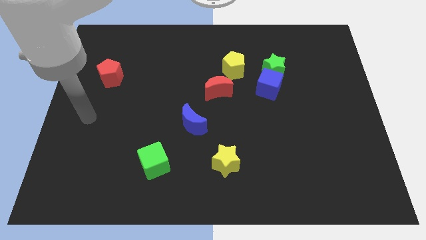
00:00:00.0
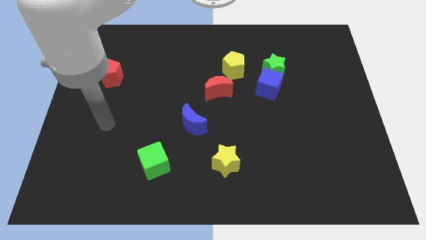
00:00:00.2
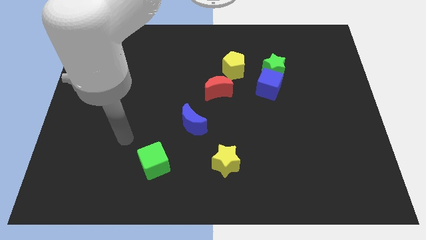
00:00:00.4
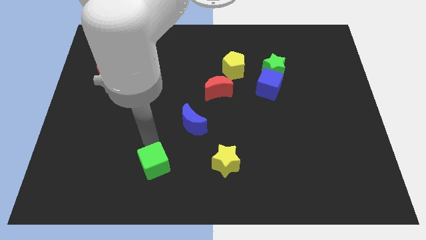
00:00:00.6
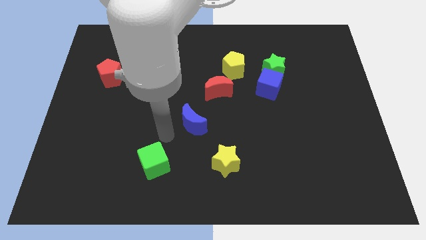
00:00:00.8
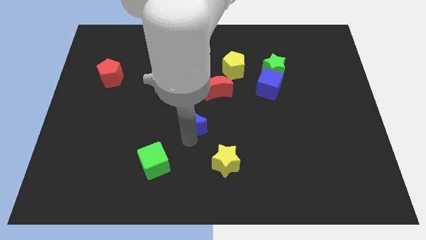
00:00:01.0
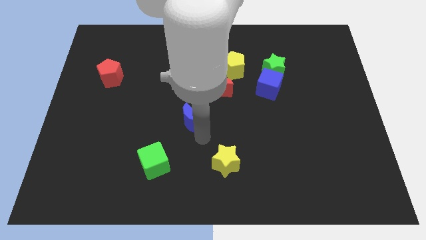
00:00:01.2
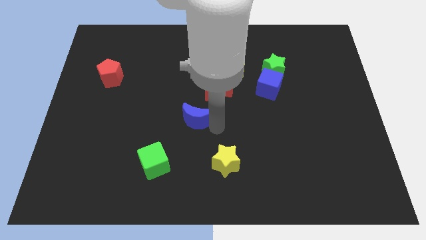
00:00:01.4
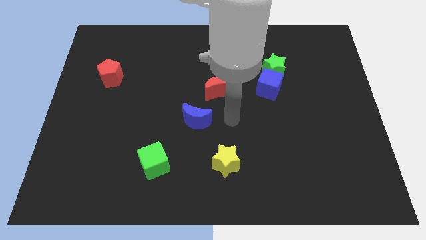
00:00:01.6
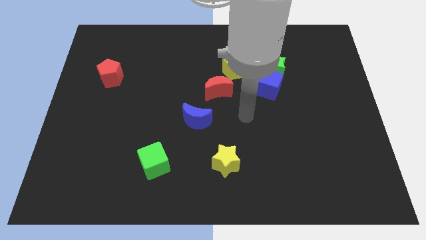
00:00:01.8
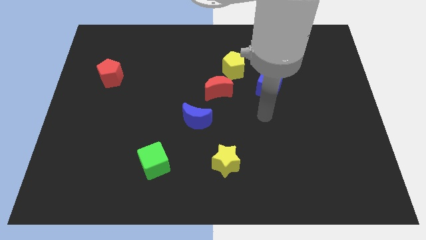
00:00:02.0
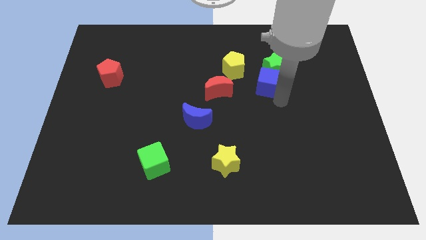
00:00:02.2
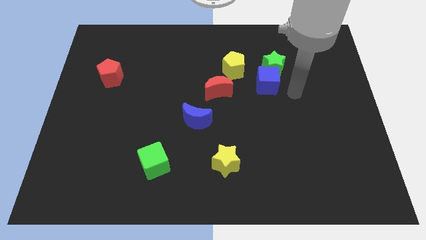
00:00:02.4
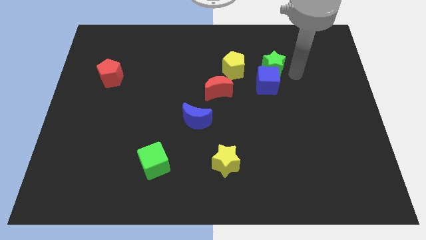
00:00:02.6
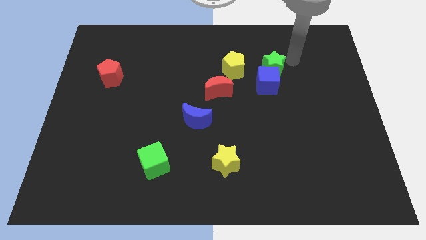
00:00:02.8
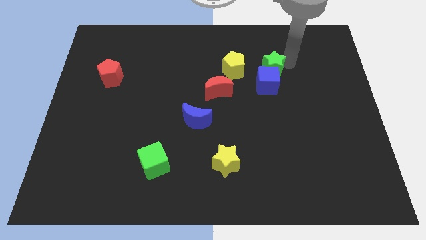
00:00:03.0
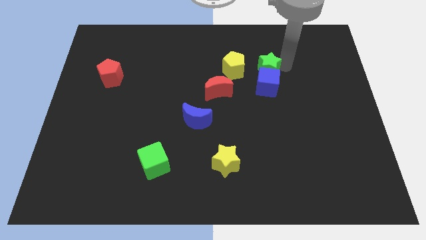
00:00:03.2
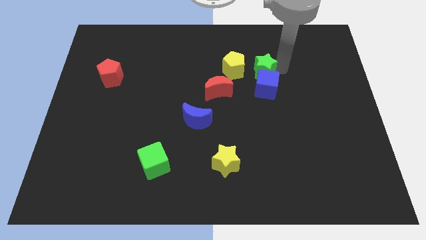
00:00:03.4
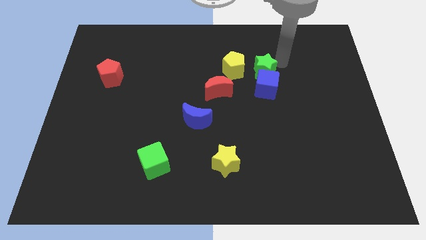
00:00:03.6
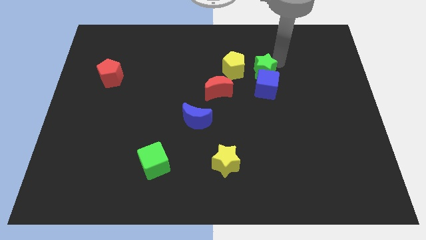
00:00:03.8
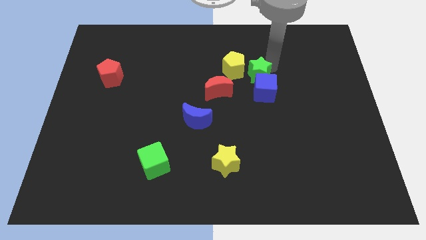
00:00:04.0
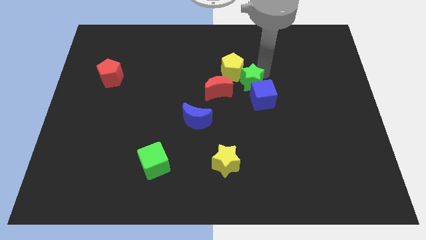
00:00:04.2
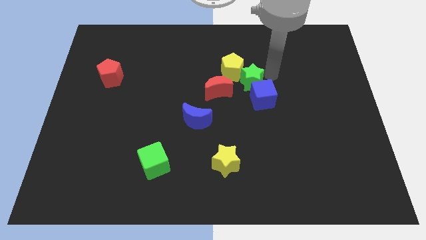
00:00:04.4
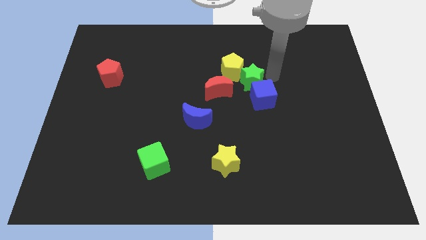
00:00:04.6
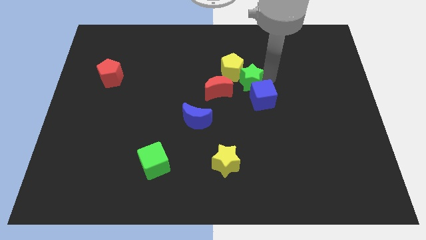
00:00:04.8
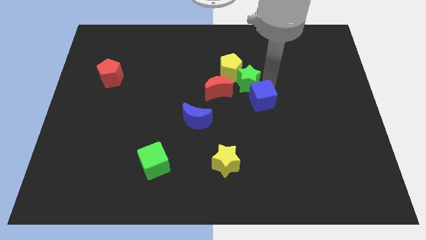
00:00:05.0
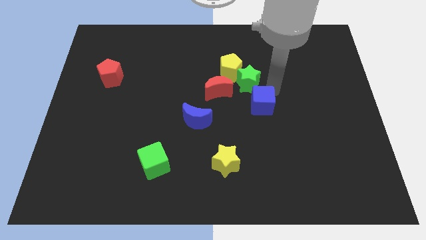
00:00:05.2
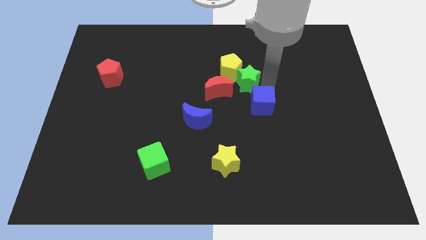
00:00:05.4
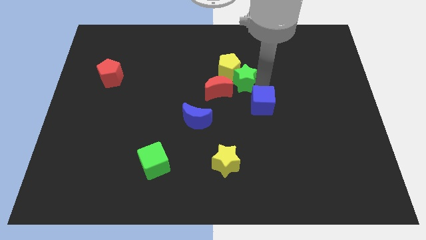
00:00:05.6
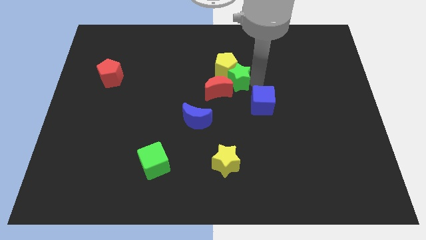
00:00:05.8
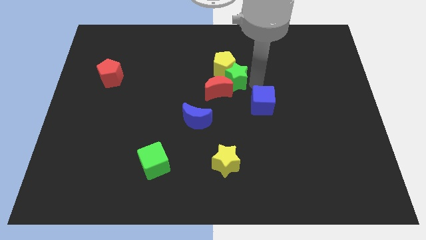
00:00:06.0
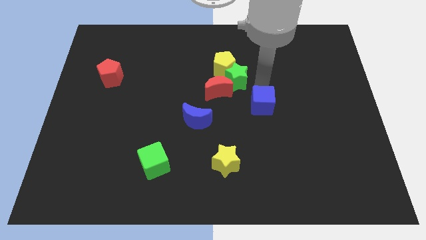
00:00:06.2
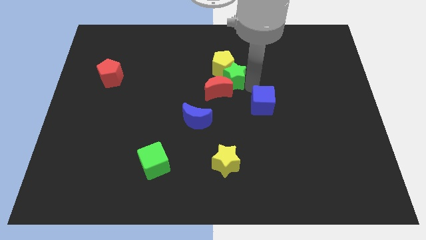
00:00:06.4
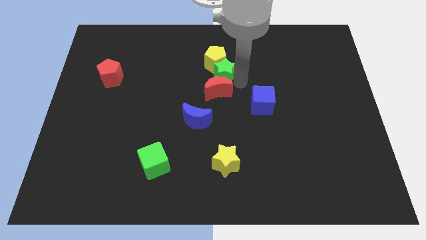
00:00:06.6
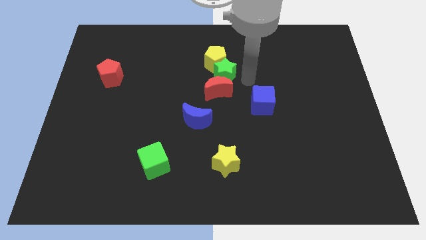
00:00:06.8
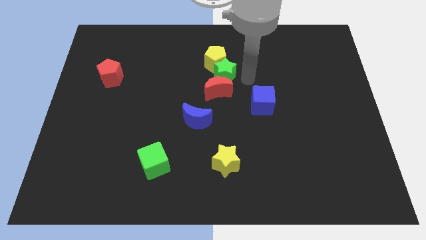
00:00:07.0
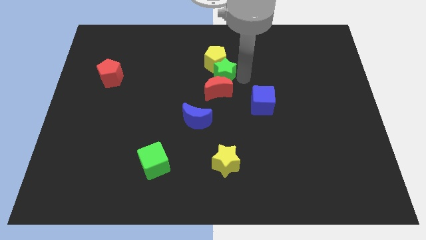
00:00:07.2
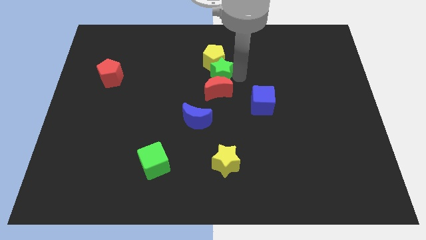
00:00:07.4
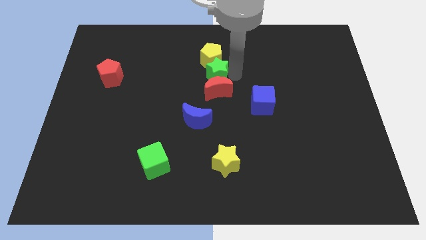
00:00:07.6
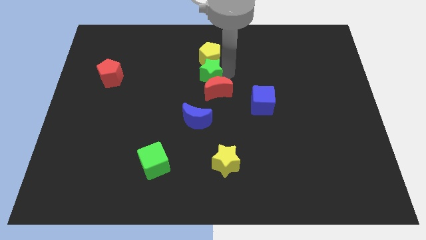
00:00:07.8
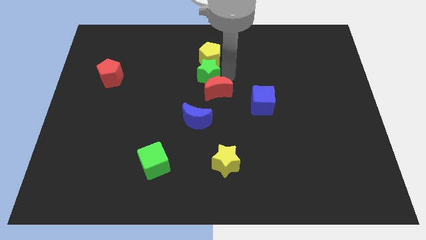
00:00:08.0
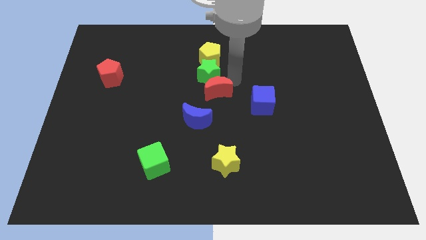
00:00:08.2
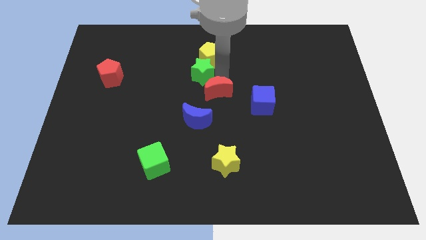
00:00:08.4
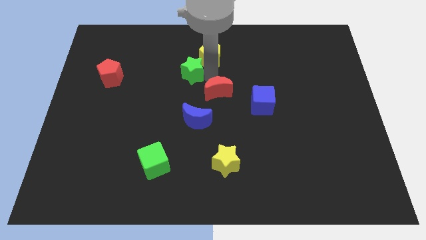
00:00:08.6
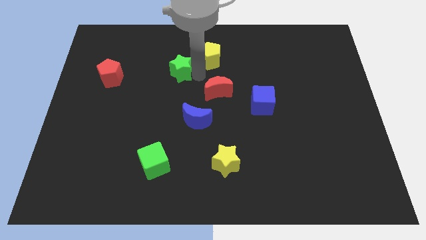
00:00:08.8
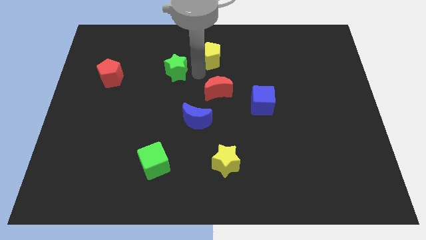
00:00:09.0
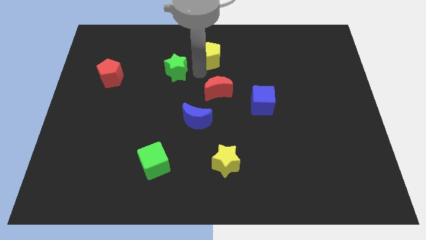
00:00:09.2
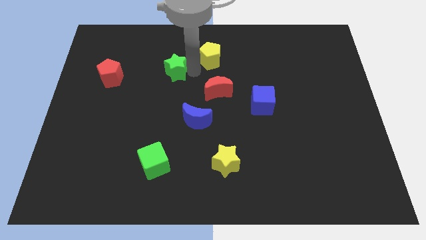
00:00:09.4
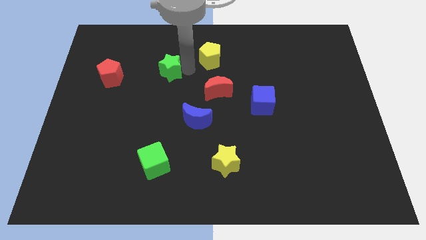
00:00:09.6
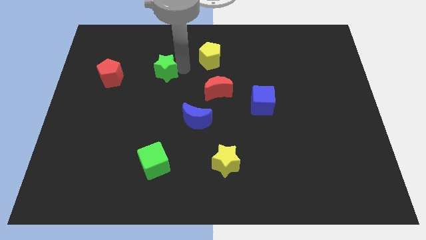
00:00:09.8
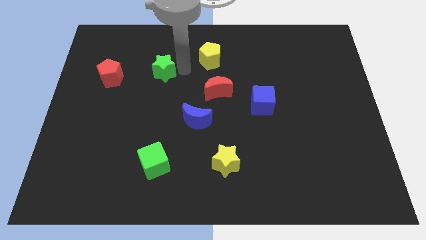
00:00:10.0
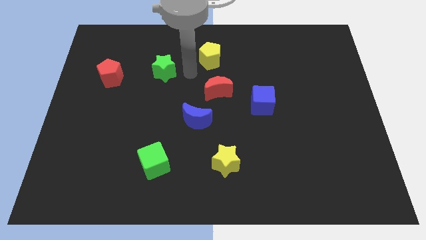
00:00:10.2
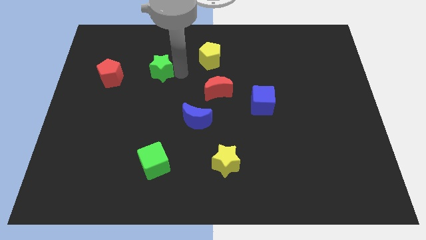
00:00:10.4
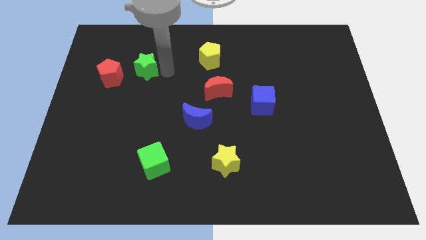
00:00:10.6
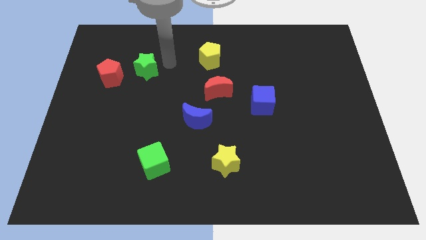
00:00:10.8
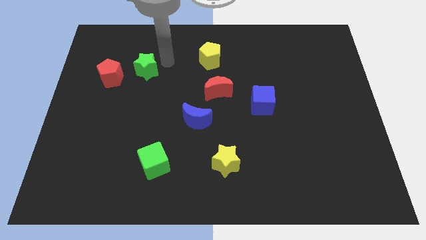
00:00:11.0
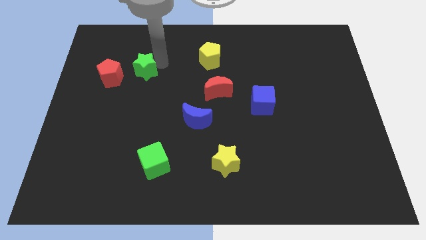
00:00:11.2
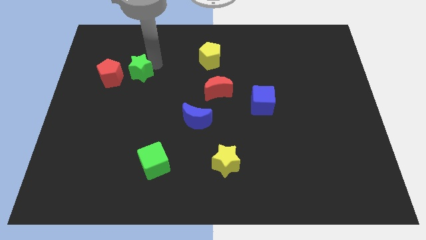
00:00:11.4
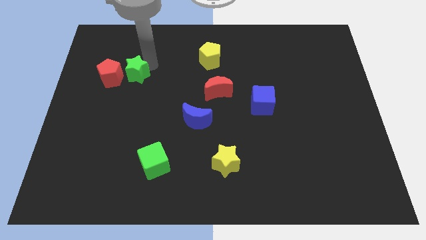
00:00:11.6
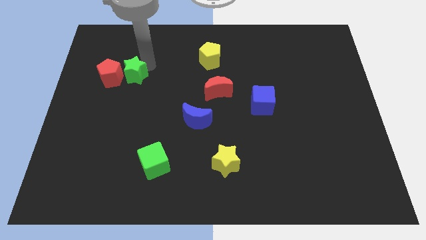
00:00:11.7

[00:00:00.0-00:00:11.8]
push the green star next to the red pentagon
